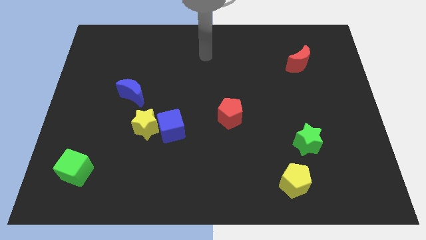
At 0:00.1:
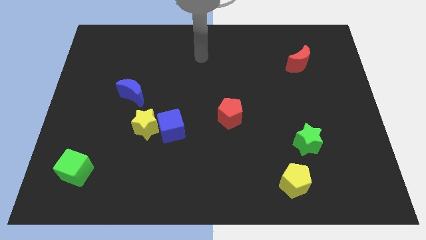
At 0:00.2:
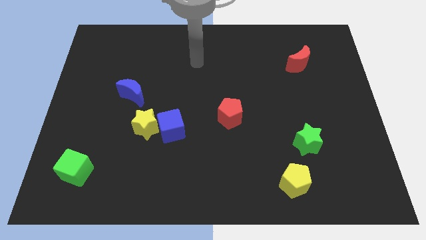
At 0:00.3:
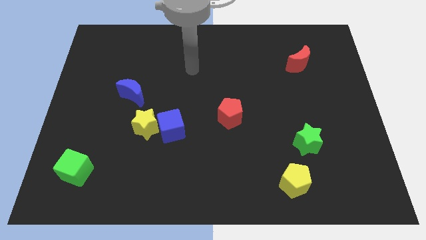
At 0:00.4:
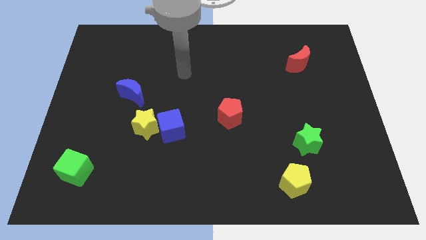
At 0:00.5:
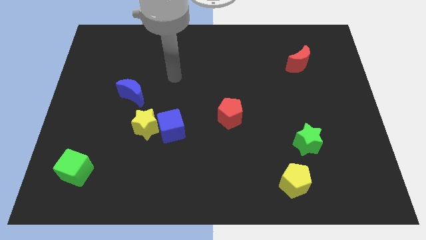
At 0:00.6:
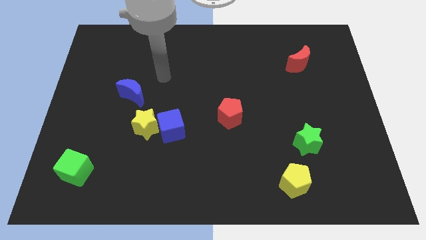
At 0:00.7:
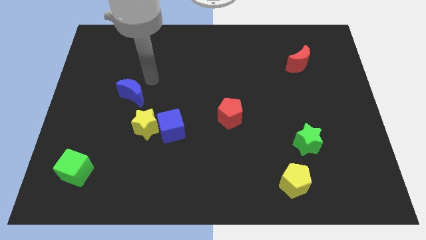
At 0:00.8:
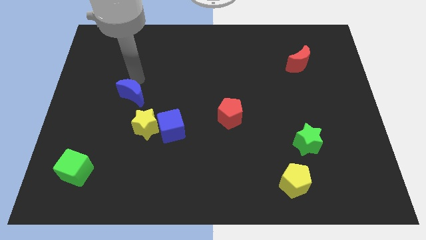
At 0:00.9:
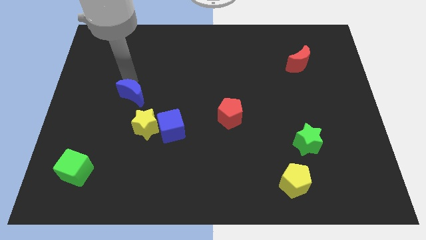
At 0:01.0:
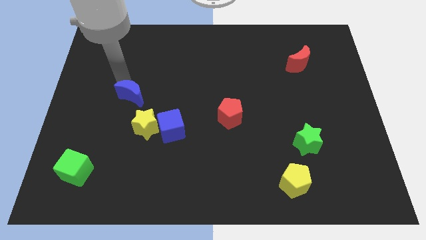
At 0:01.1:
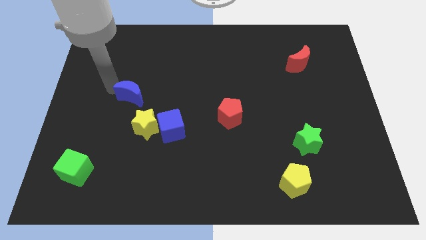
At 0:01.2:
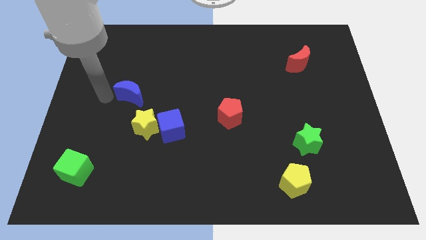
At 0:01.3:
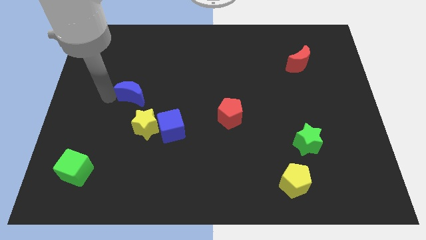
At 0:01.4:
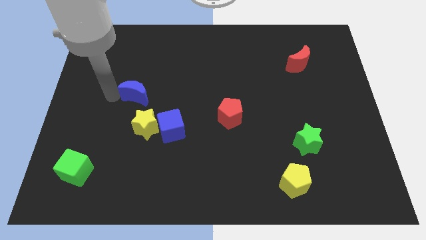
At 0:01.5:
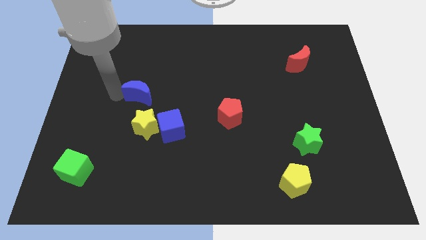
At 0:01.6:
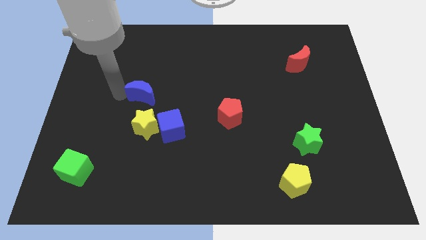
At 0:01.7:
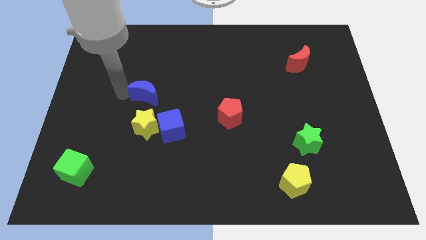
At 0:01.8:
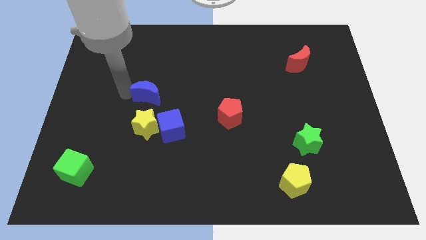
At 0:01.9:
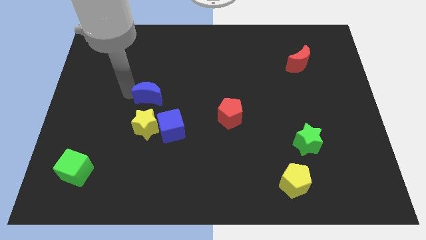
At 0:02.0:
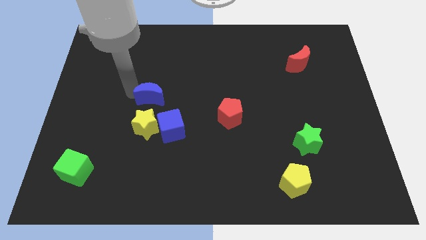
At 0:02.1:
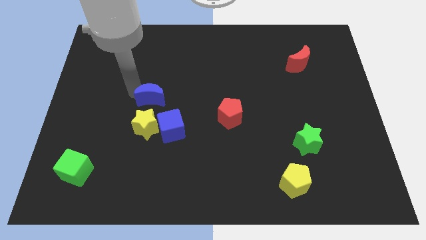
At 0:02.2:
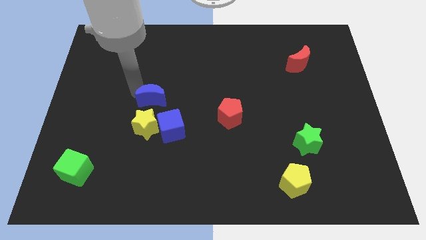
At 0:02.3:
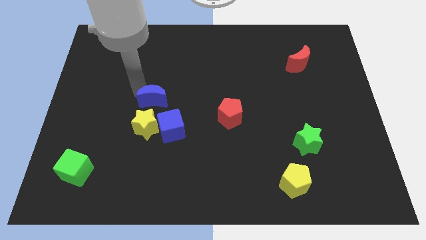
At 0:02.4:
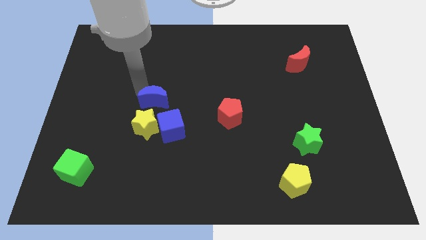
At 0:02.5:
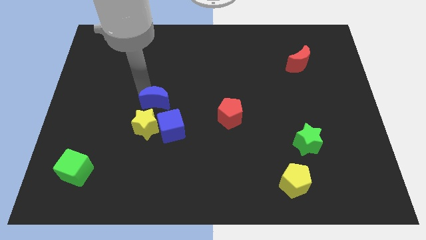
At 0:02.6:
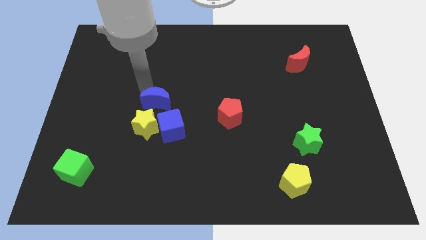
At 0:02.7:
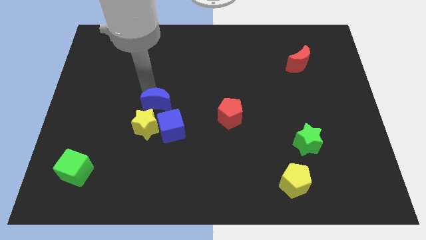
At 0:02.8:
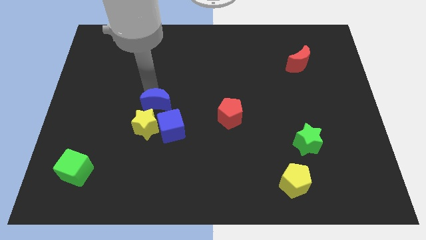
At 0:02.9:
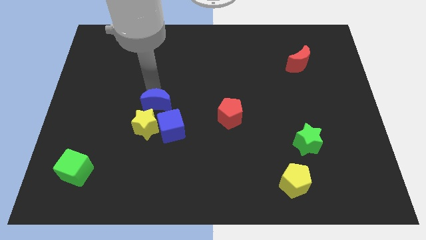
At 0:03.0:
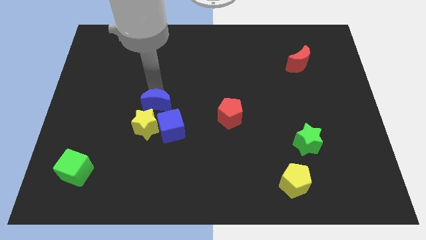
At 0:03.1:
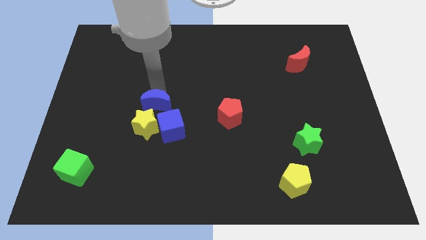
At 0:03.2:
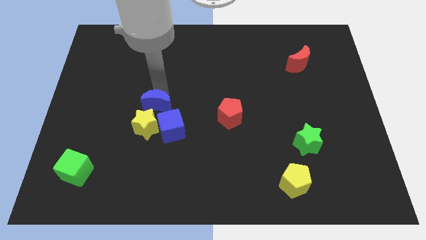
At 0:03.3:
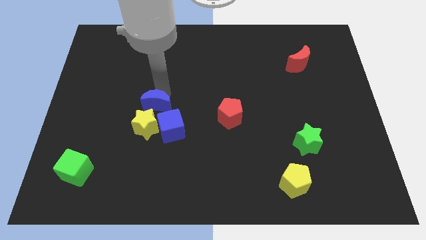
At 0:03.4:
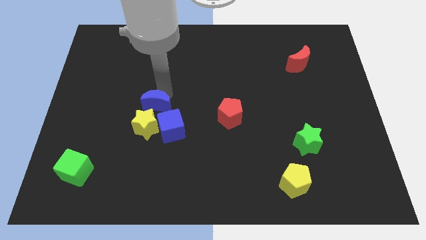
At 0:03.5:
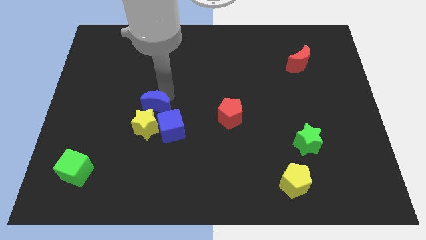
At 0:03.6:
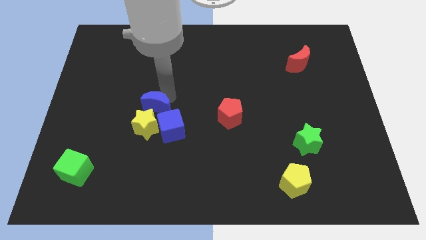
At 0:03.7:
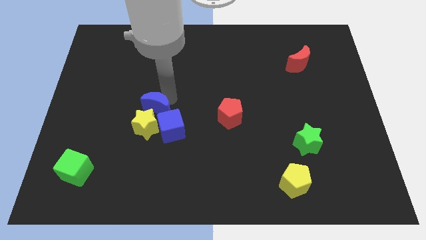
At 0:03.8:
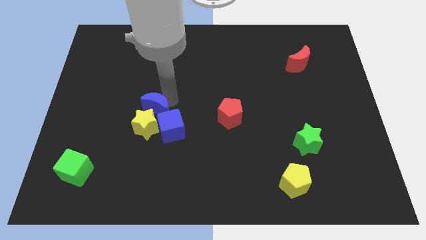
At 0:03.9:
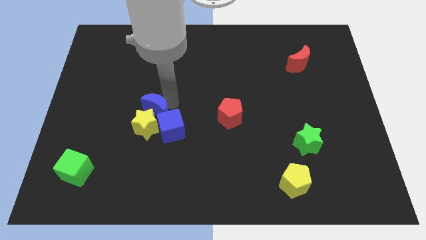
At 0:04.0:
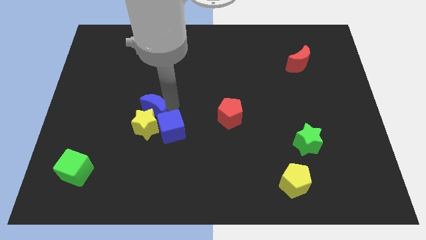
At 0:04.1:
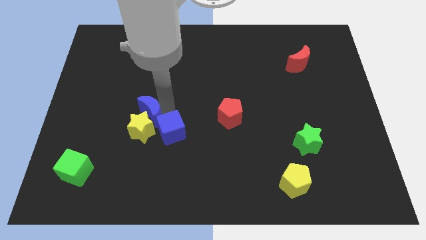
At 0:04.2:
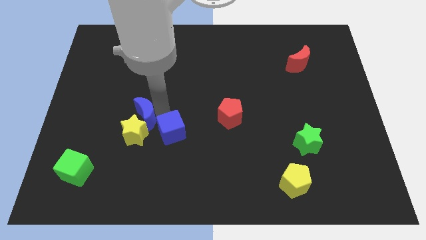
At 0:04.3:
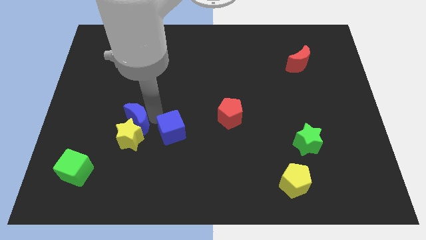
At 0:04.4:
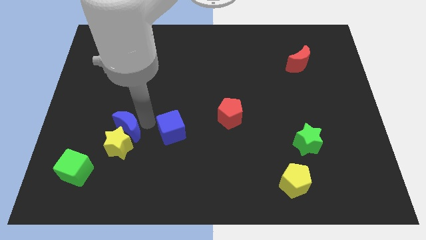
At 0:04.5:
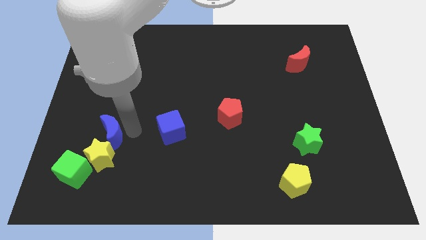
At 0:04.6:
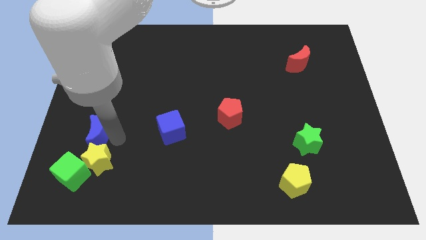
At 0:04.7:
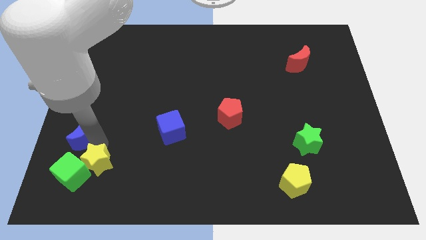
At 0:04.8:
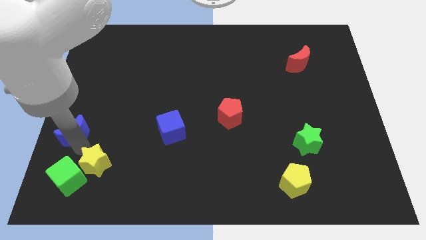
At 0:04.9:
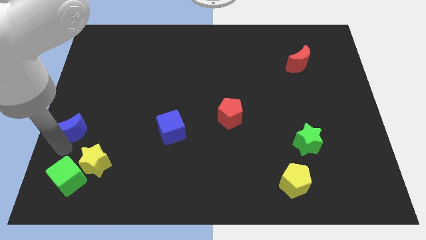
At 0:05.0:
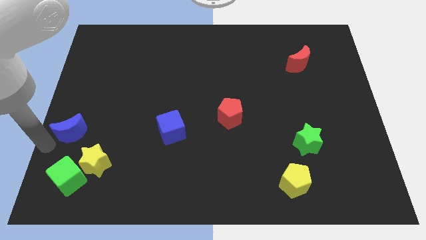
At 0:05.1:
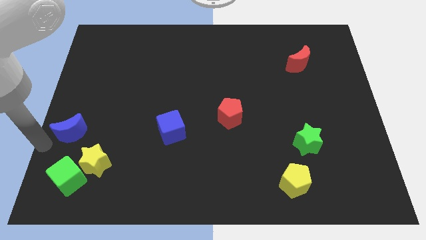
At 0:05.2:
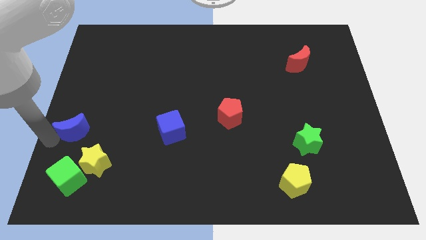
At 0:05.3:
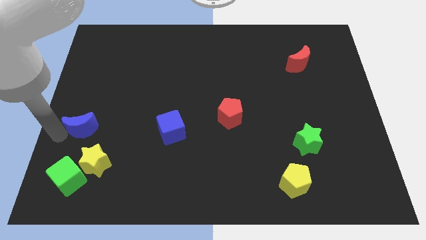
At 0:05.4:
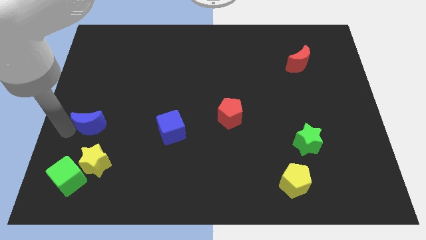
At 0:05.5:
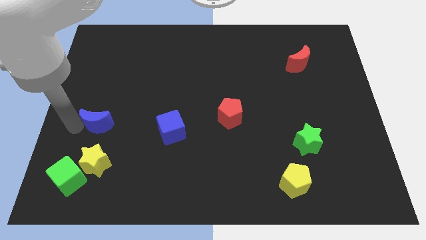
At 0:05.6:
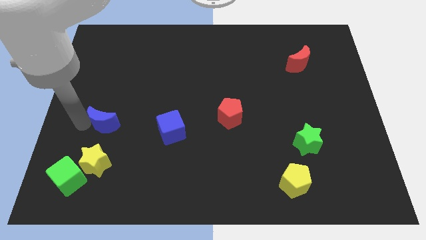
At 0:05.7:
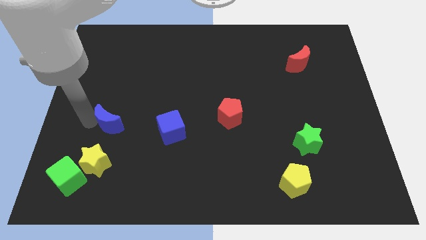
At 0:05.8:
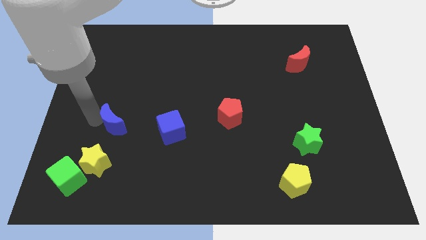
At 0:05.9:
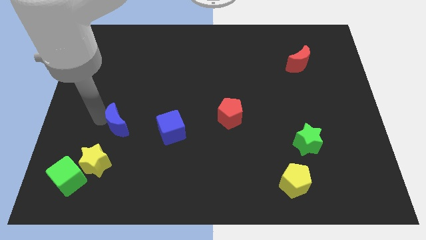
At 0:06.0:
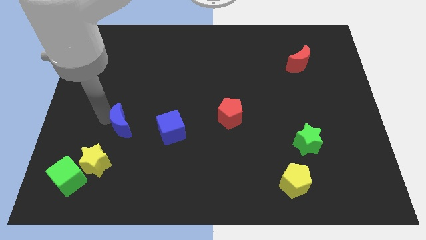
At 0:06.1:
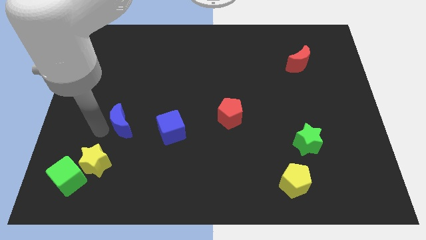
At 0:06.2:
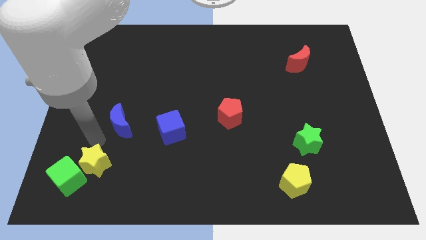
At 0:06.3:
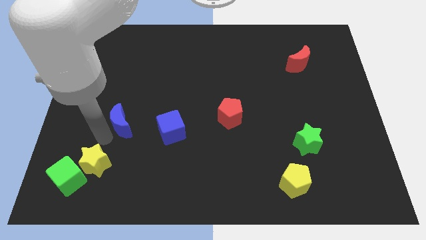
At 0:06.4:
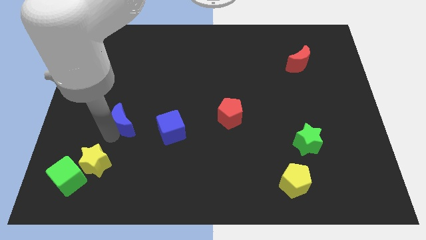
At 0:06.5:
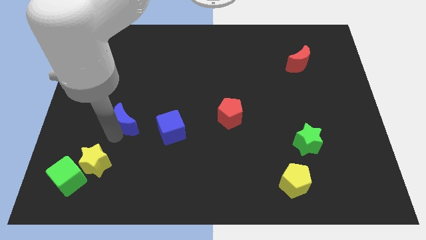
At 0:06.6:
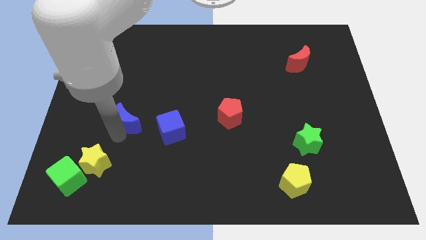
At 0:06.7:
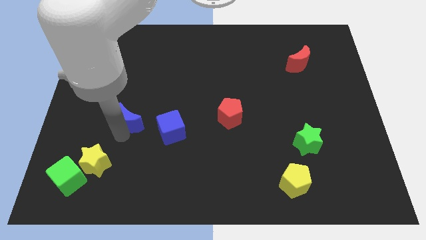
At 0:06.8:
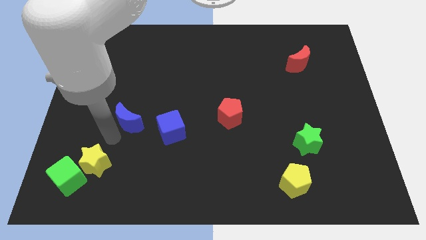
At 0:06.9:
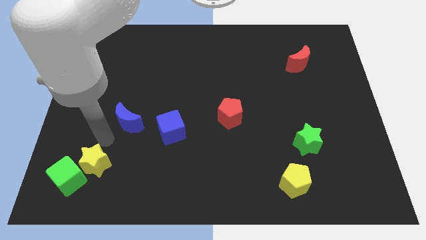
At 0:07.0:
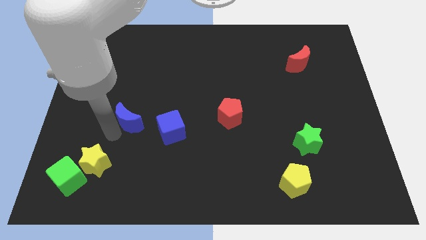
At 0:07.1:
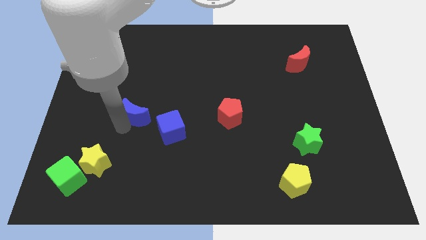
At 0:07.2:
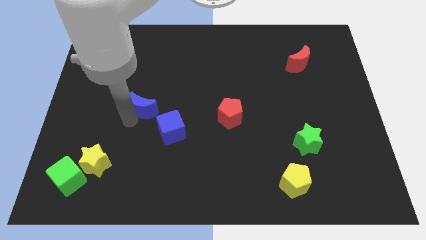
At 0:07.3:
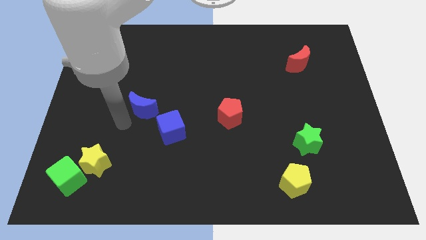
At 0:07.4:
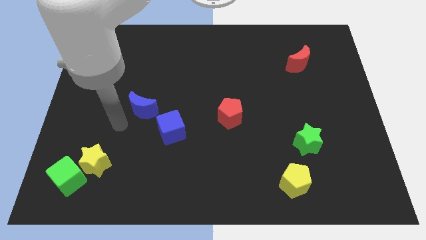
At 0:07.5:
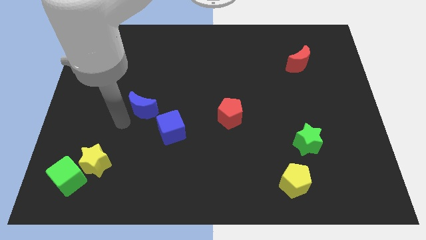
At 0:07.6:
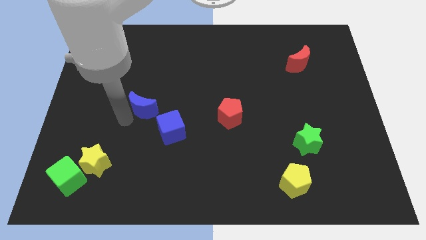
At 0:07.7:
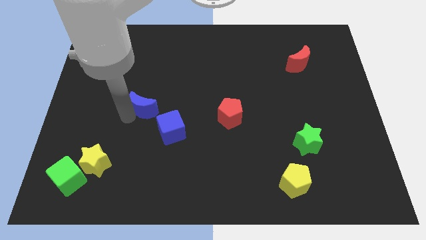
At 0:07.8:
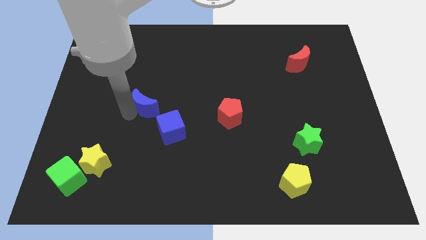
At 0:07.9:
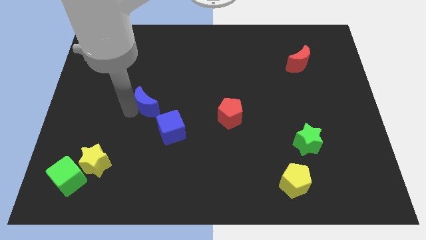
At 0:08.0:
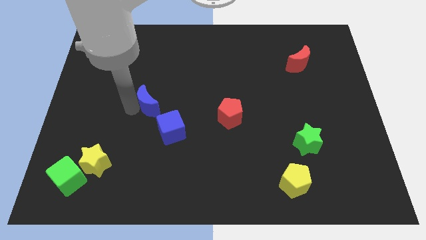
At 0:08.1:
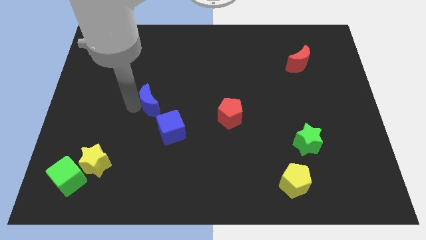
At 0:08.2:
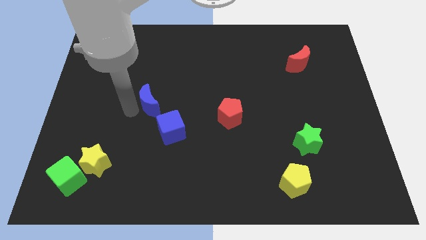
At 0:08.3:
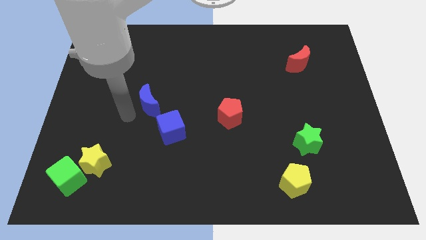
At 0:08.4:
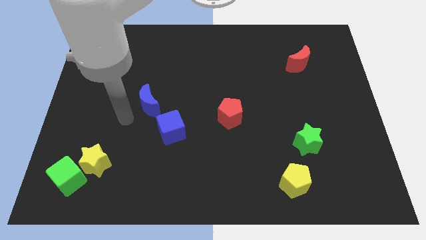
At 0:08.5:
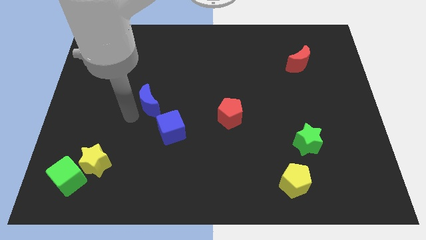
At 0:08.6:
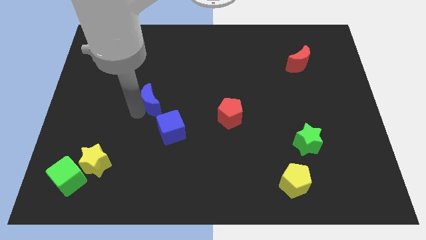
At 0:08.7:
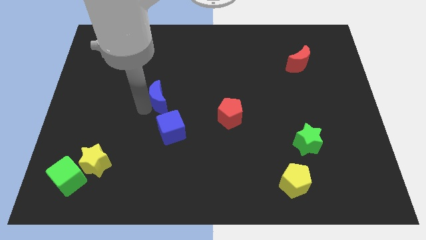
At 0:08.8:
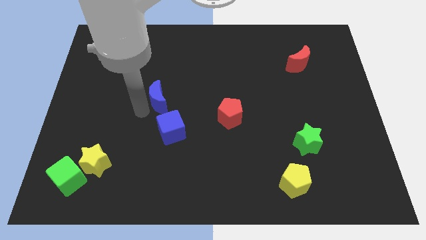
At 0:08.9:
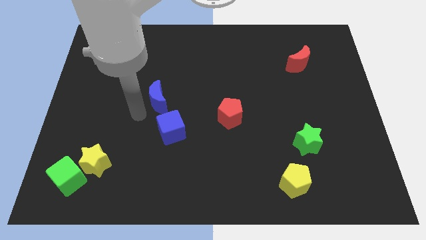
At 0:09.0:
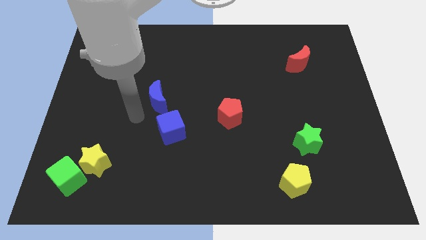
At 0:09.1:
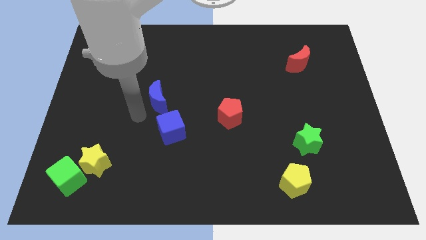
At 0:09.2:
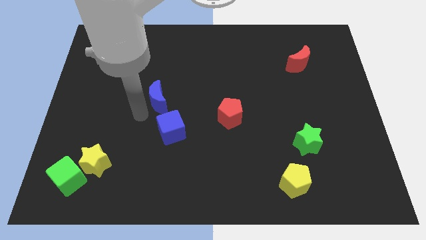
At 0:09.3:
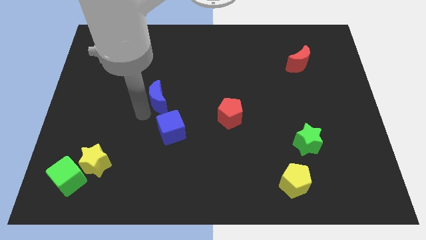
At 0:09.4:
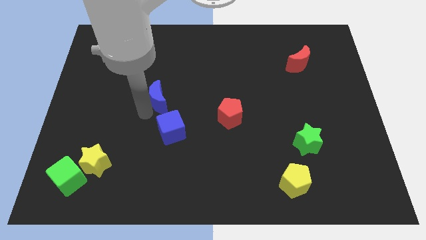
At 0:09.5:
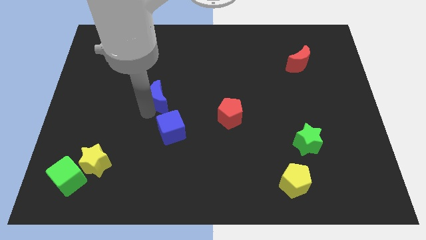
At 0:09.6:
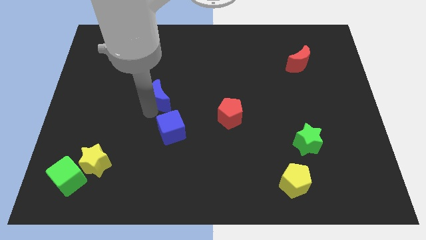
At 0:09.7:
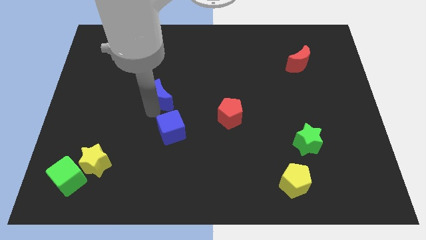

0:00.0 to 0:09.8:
move the blue moon a little bit to the right
